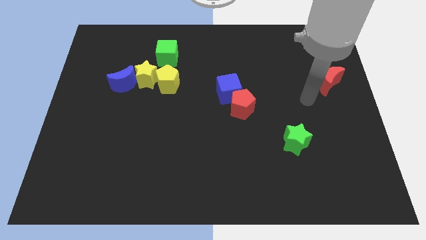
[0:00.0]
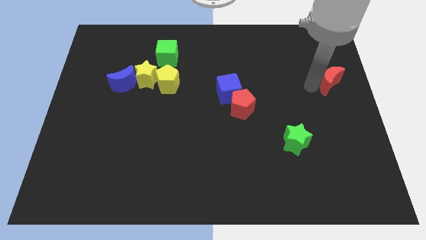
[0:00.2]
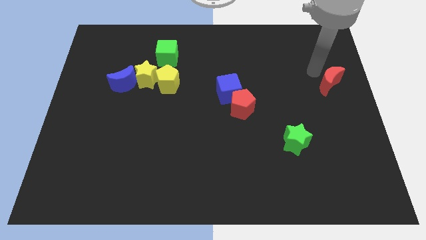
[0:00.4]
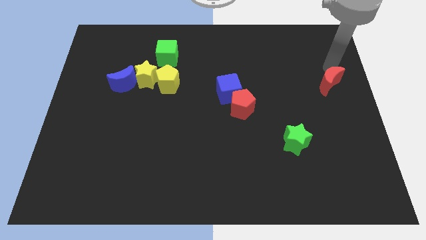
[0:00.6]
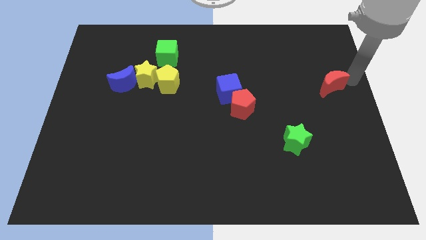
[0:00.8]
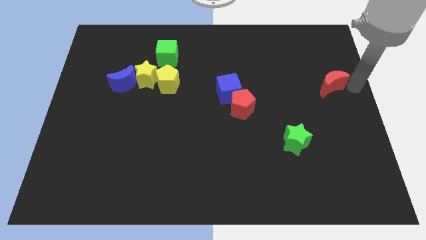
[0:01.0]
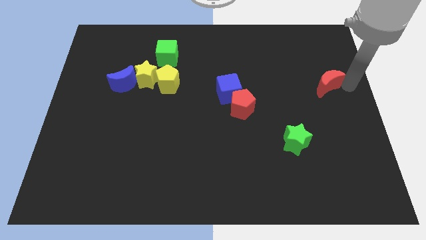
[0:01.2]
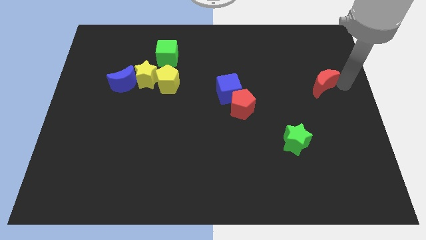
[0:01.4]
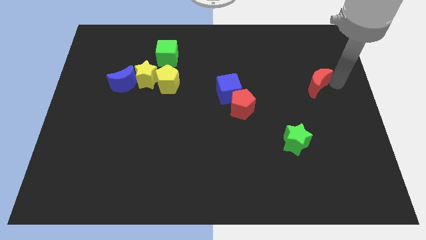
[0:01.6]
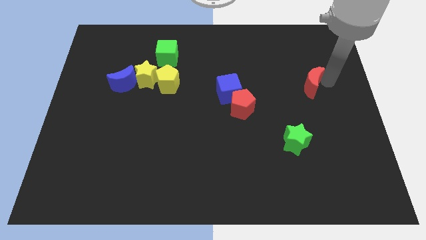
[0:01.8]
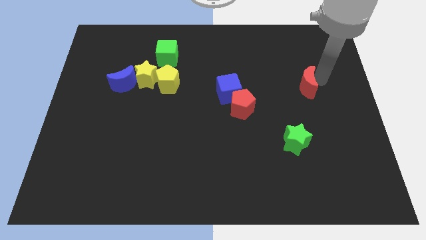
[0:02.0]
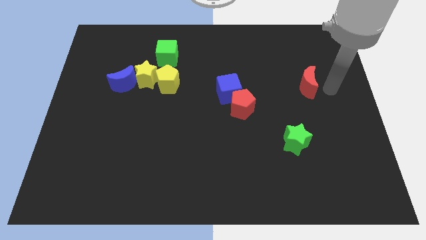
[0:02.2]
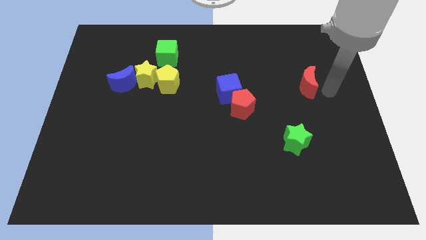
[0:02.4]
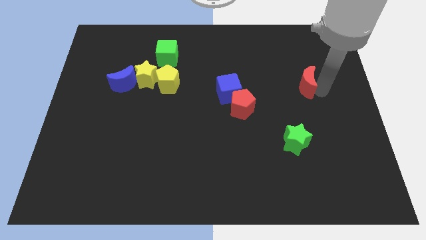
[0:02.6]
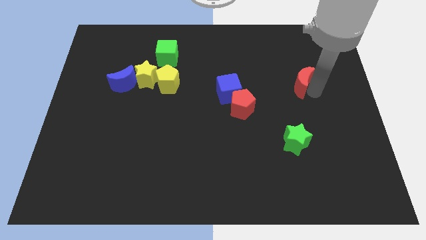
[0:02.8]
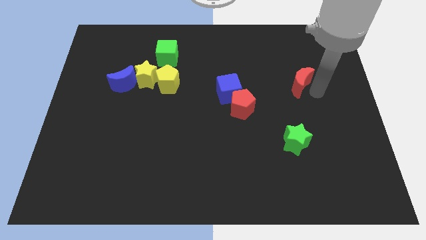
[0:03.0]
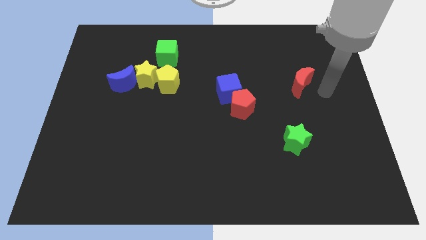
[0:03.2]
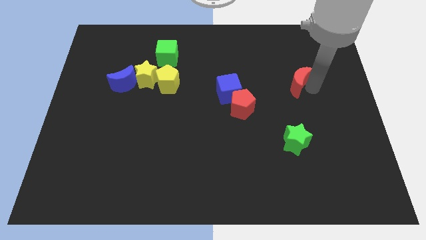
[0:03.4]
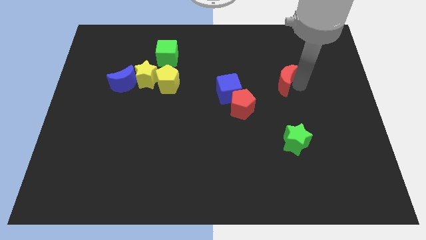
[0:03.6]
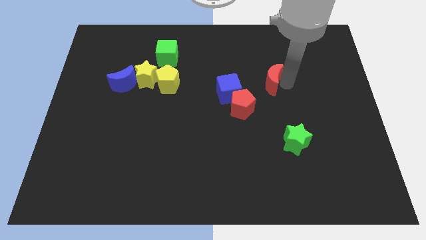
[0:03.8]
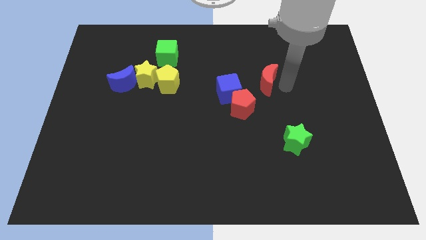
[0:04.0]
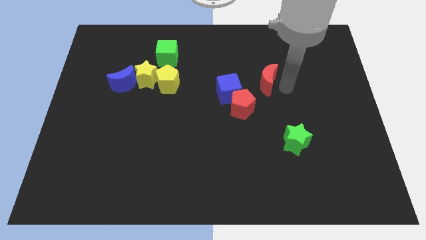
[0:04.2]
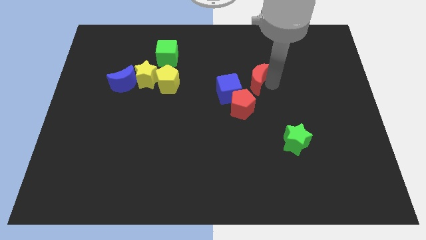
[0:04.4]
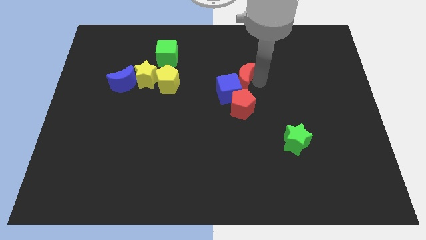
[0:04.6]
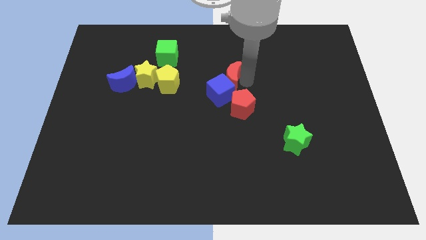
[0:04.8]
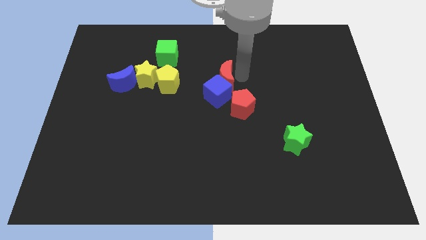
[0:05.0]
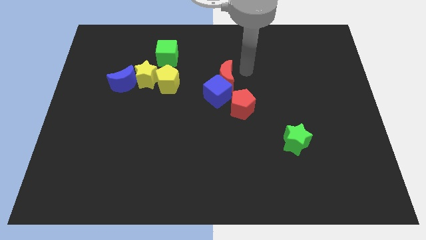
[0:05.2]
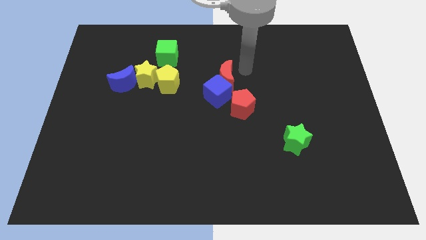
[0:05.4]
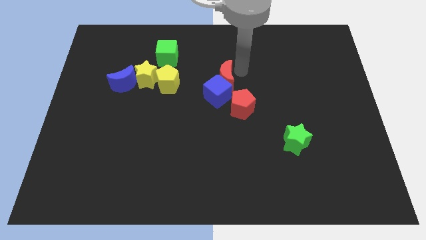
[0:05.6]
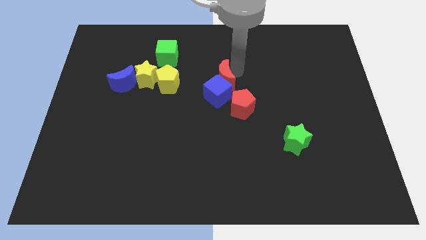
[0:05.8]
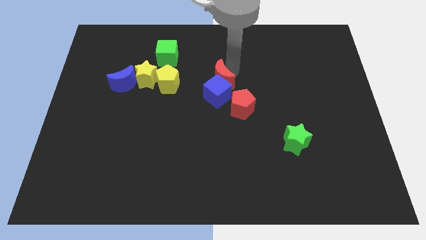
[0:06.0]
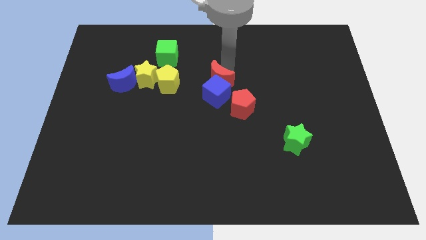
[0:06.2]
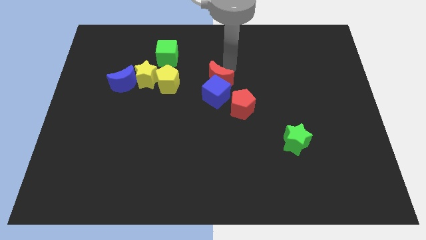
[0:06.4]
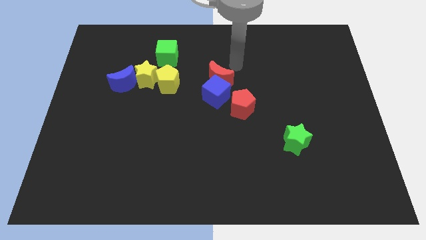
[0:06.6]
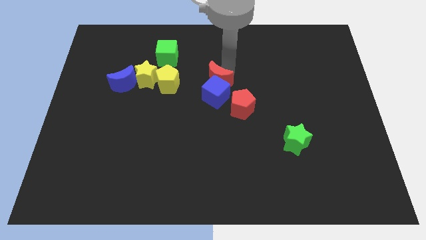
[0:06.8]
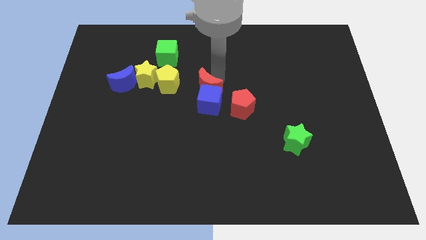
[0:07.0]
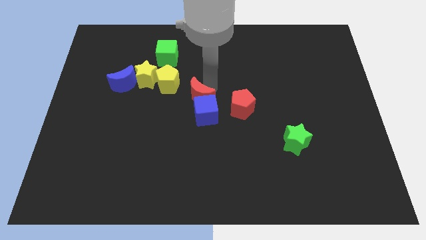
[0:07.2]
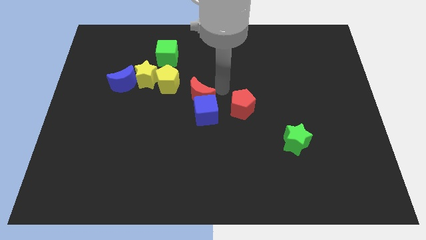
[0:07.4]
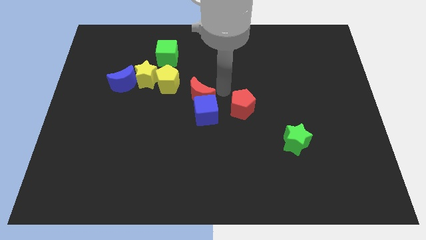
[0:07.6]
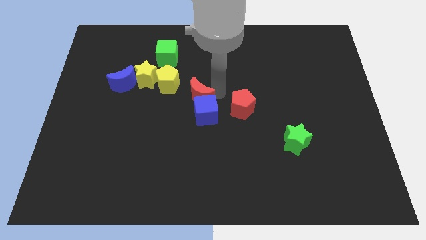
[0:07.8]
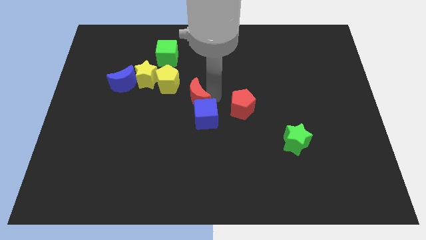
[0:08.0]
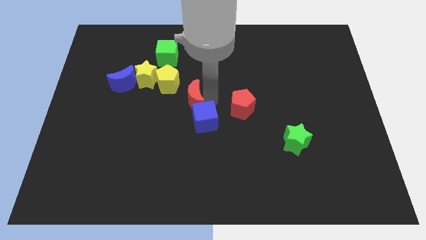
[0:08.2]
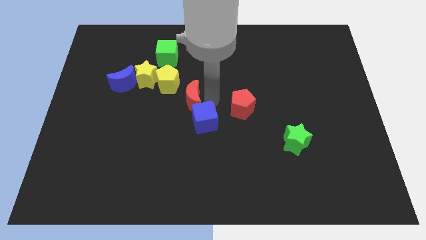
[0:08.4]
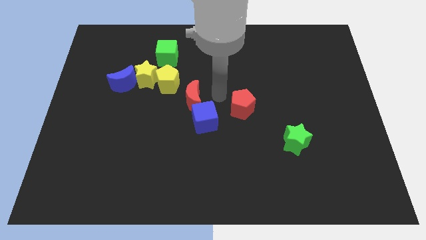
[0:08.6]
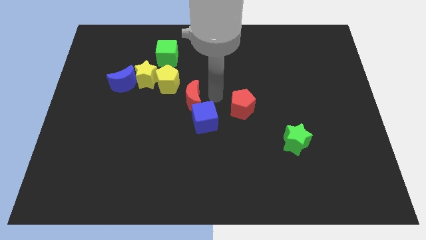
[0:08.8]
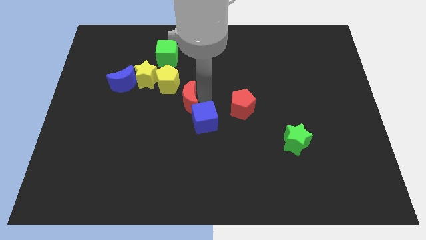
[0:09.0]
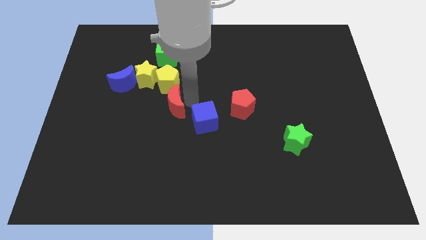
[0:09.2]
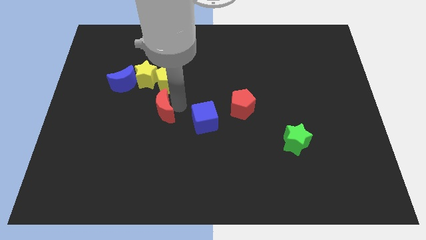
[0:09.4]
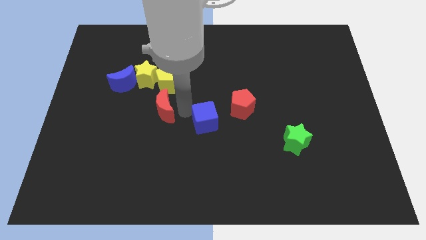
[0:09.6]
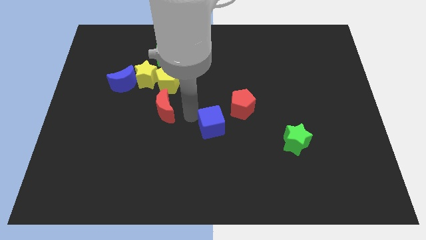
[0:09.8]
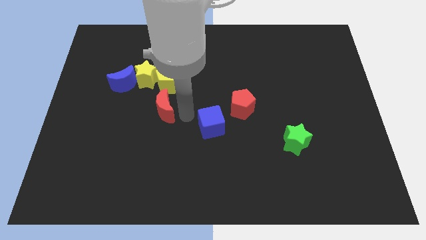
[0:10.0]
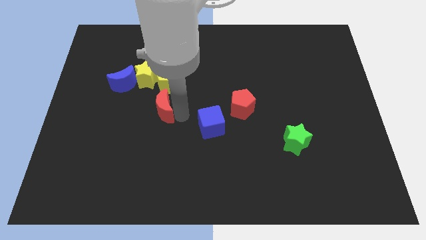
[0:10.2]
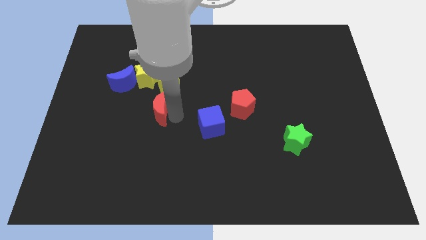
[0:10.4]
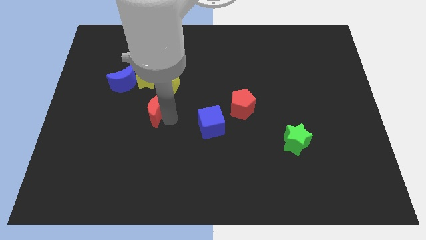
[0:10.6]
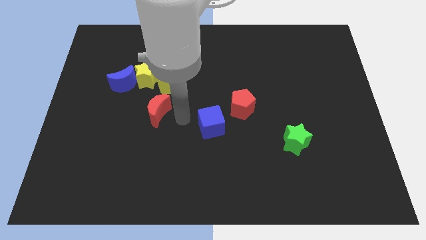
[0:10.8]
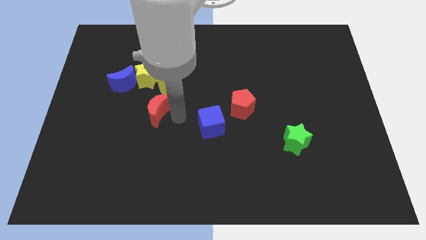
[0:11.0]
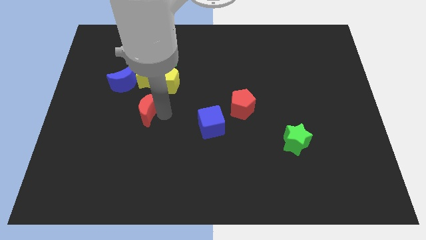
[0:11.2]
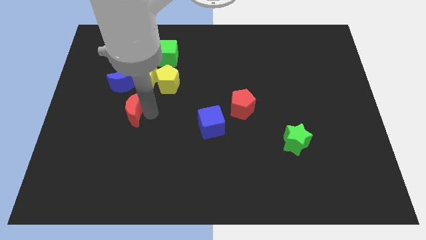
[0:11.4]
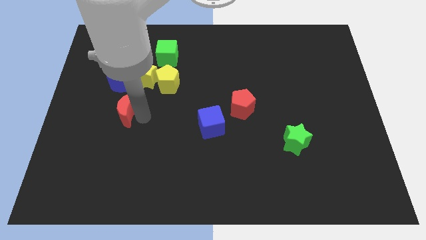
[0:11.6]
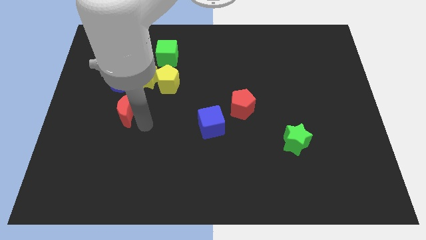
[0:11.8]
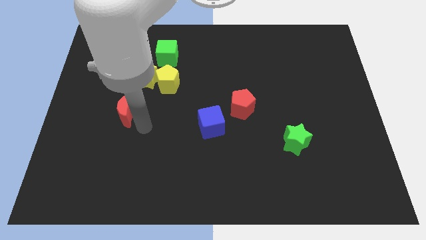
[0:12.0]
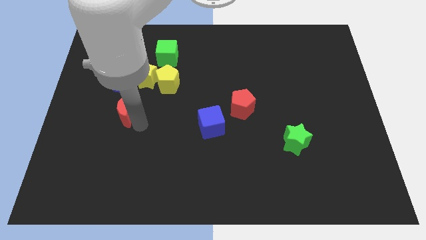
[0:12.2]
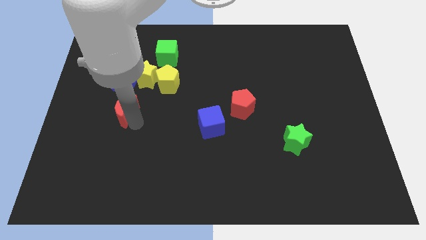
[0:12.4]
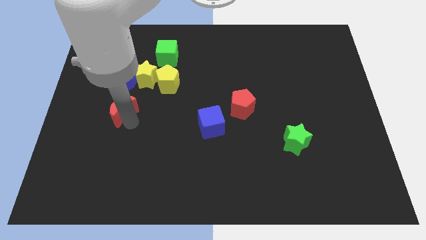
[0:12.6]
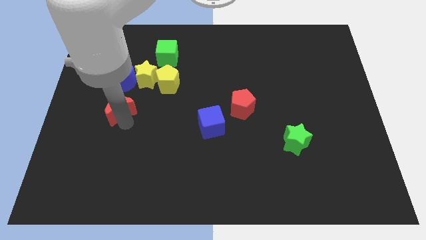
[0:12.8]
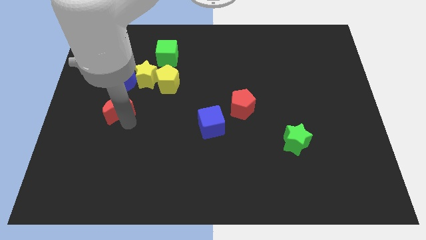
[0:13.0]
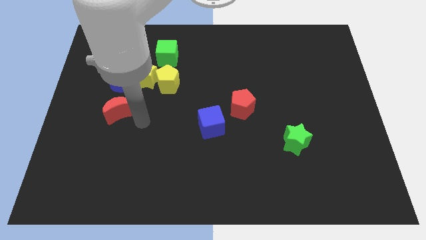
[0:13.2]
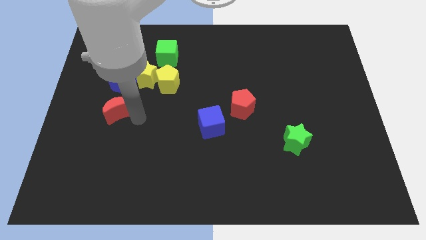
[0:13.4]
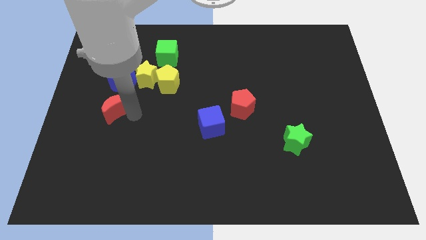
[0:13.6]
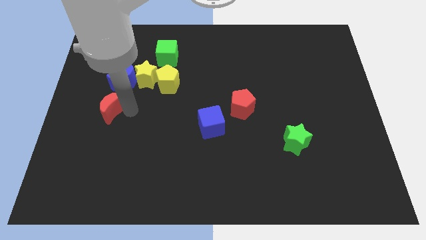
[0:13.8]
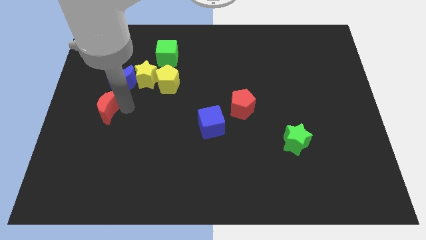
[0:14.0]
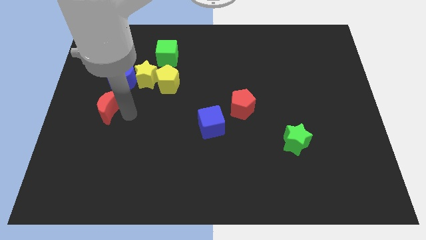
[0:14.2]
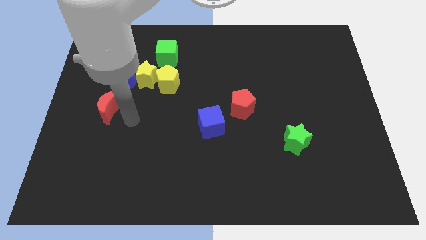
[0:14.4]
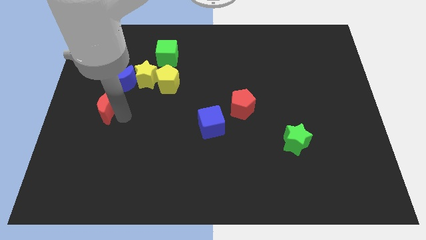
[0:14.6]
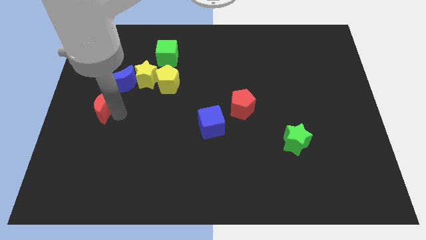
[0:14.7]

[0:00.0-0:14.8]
move the red moon to the left side
